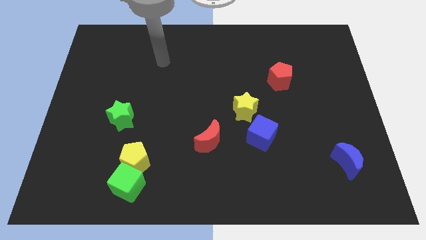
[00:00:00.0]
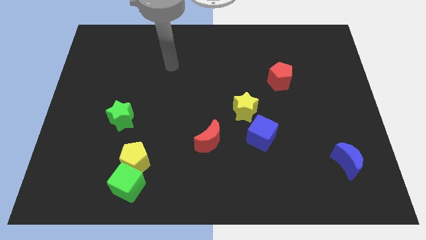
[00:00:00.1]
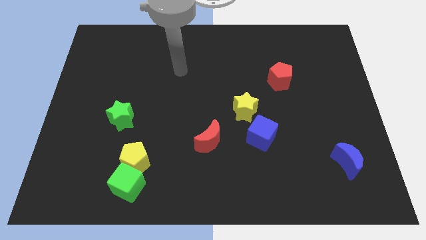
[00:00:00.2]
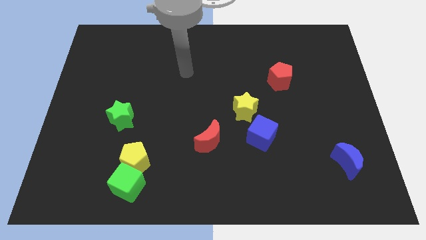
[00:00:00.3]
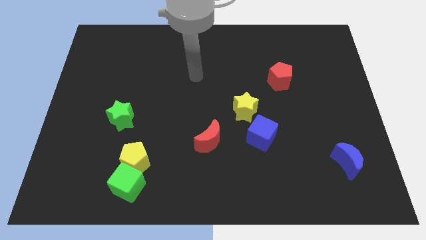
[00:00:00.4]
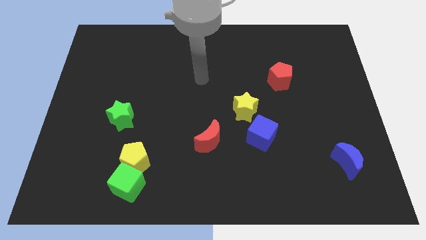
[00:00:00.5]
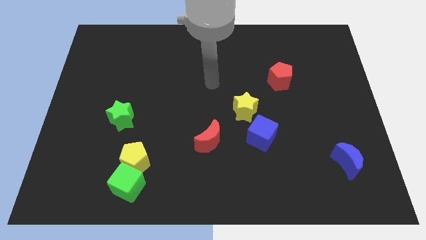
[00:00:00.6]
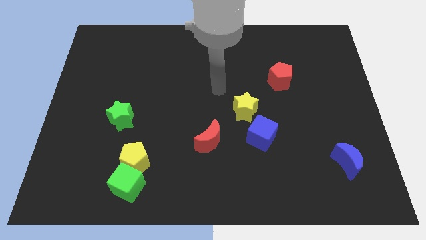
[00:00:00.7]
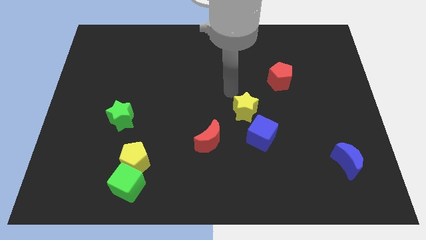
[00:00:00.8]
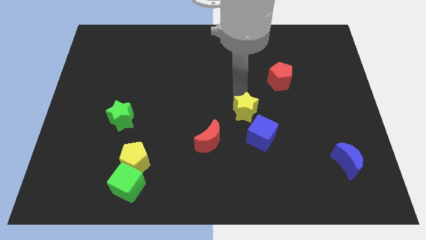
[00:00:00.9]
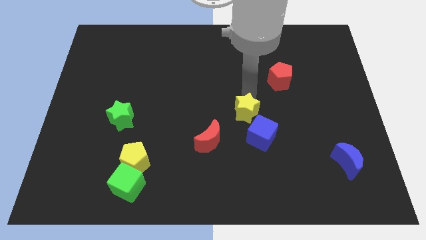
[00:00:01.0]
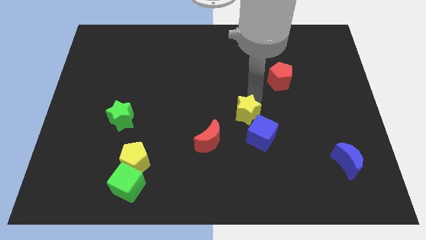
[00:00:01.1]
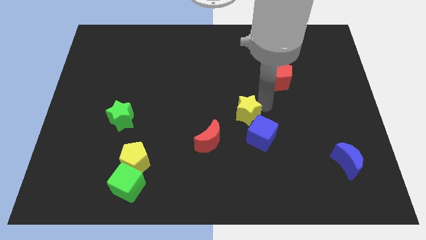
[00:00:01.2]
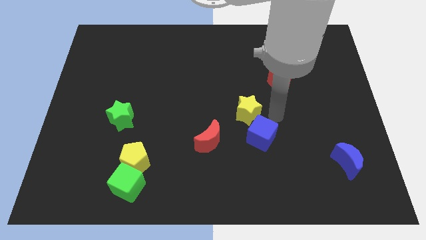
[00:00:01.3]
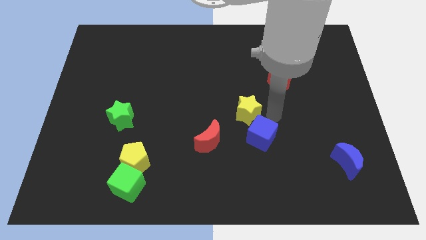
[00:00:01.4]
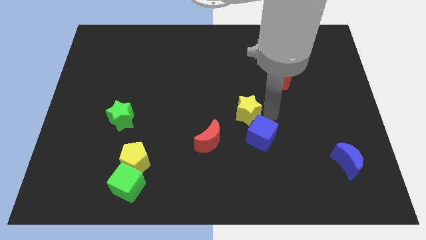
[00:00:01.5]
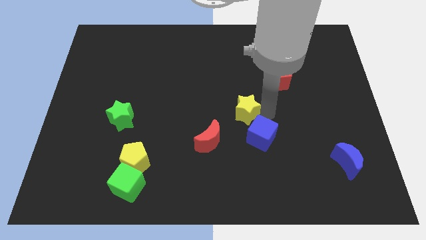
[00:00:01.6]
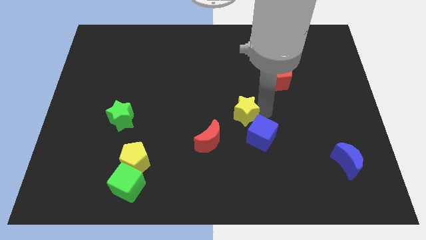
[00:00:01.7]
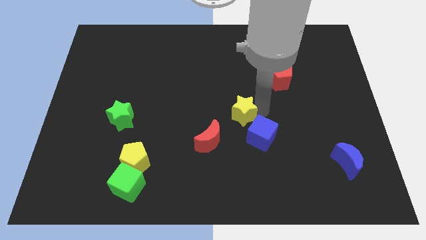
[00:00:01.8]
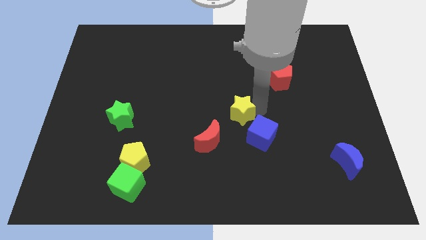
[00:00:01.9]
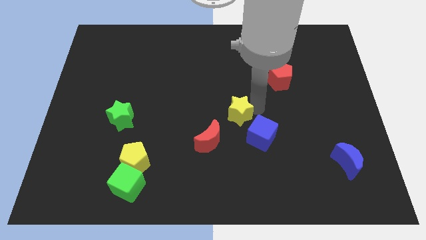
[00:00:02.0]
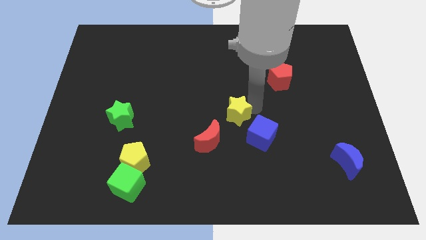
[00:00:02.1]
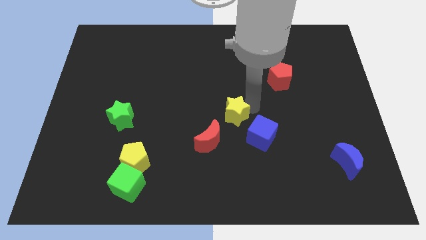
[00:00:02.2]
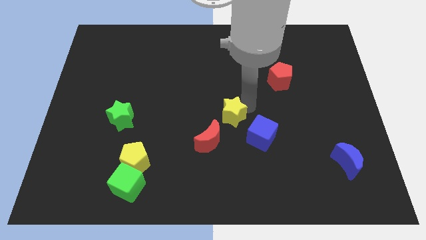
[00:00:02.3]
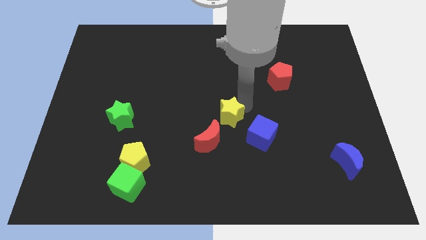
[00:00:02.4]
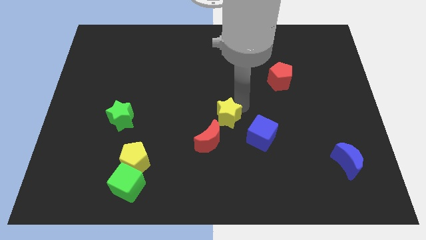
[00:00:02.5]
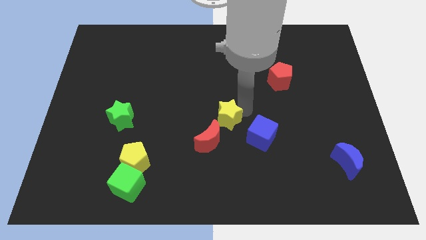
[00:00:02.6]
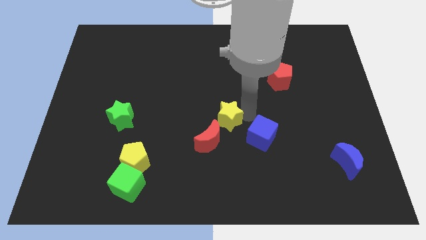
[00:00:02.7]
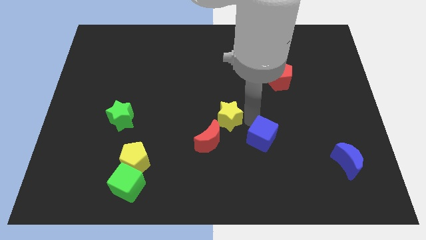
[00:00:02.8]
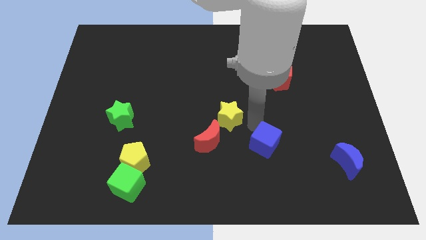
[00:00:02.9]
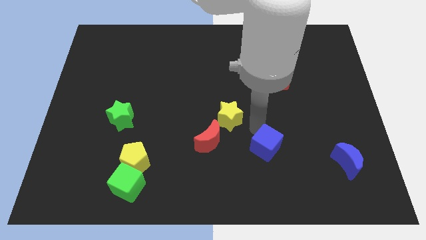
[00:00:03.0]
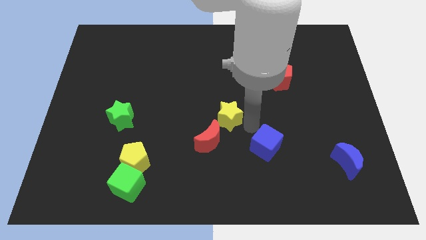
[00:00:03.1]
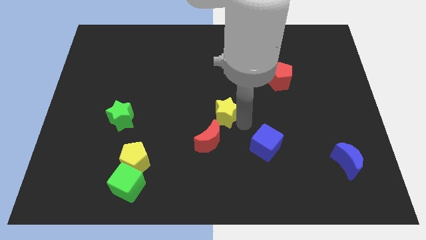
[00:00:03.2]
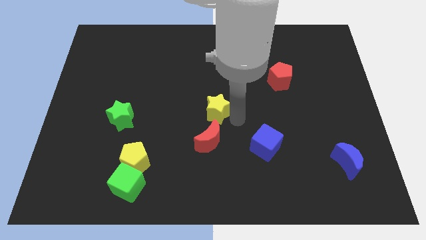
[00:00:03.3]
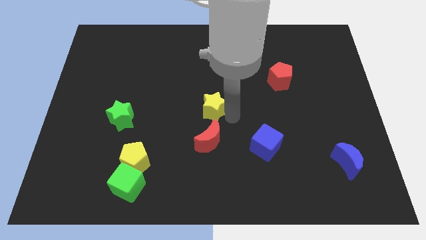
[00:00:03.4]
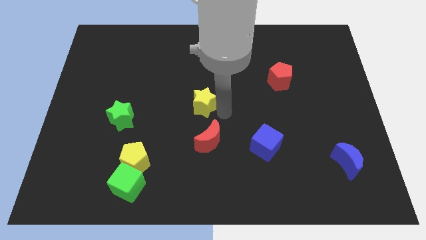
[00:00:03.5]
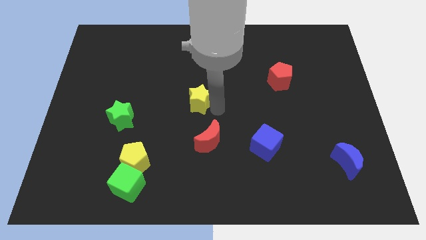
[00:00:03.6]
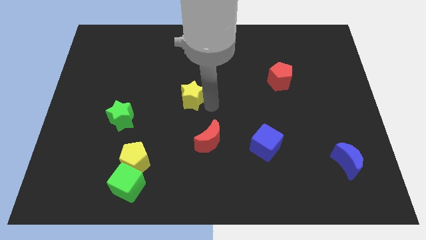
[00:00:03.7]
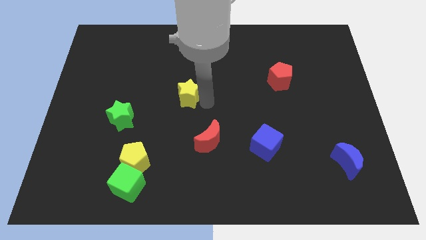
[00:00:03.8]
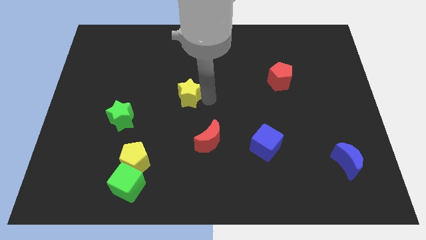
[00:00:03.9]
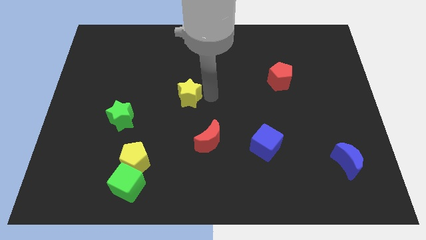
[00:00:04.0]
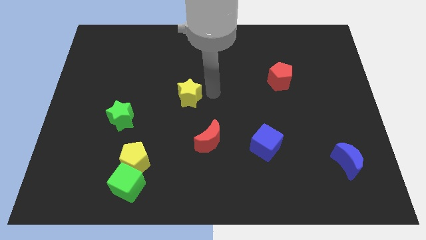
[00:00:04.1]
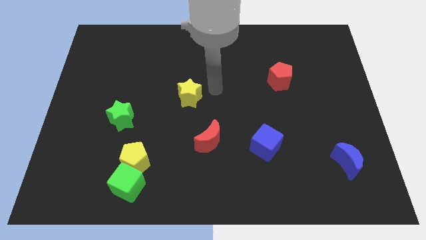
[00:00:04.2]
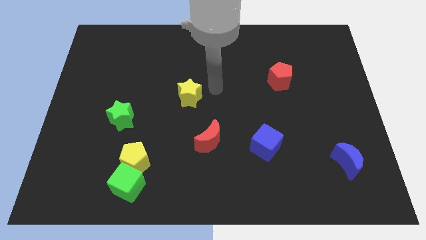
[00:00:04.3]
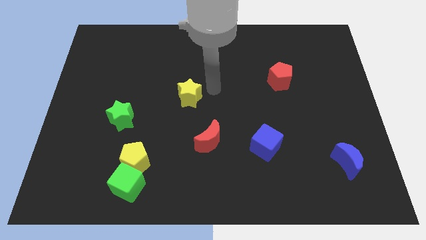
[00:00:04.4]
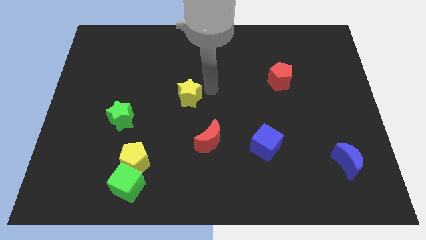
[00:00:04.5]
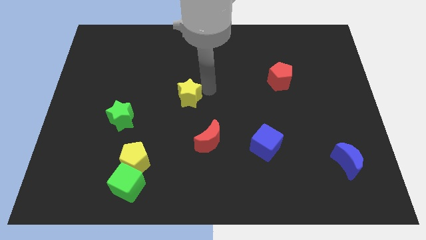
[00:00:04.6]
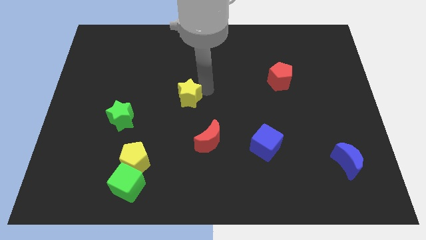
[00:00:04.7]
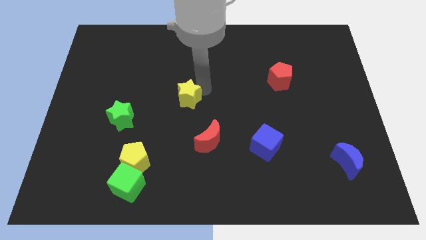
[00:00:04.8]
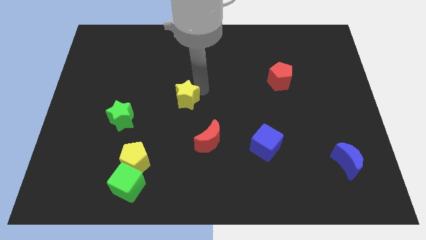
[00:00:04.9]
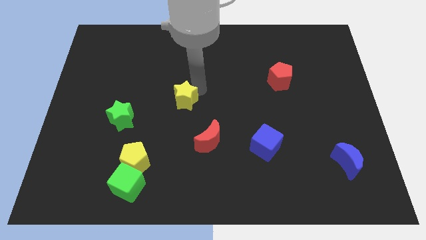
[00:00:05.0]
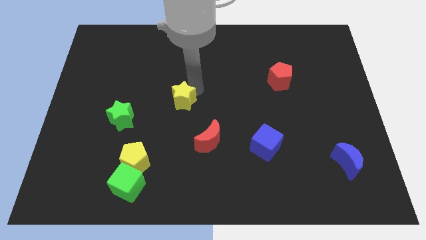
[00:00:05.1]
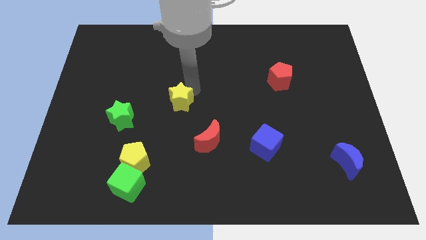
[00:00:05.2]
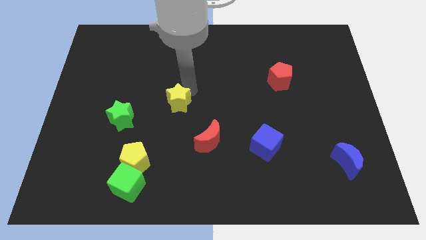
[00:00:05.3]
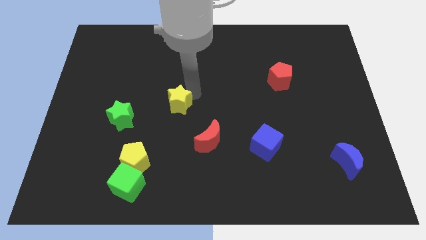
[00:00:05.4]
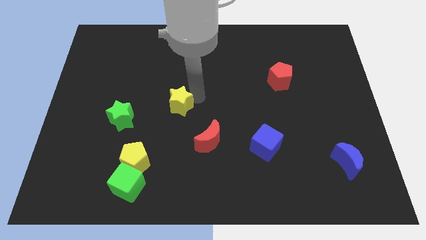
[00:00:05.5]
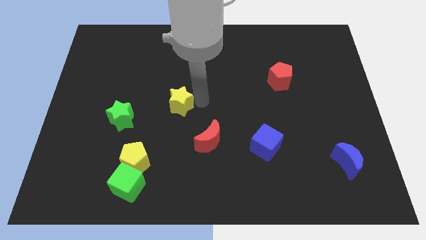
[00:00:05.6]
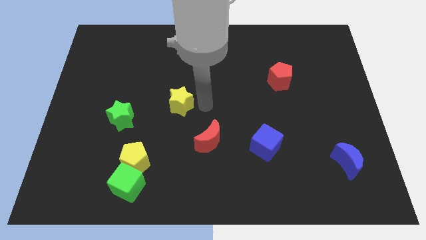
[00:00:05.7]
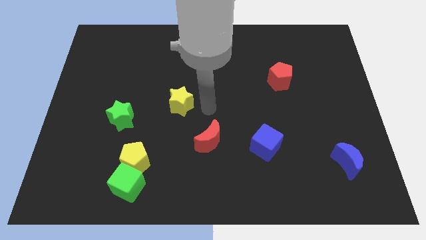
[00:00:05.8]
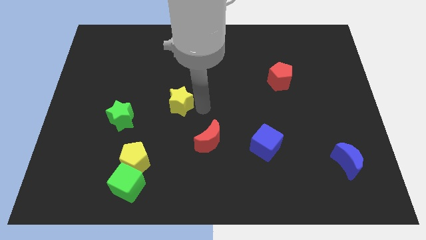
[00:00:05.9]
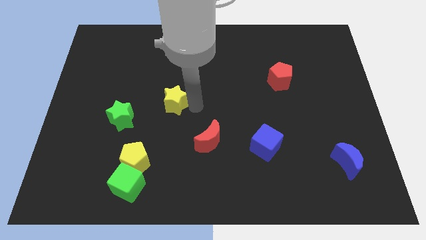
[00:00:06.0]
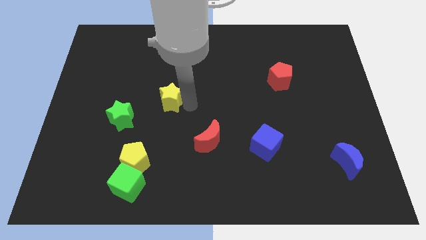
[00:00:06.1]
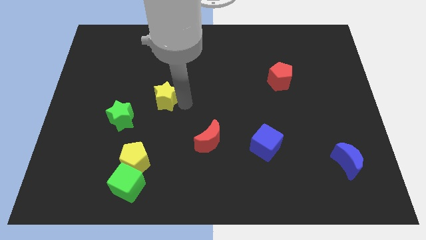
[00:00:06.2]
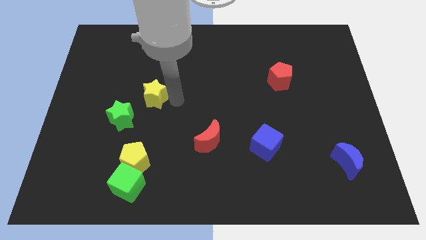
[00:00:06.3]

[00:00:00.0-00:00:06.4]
move the yellow star to the left

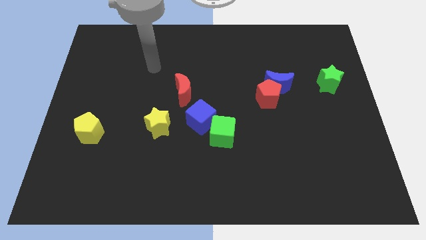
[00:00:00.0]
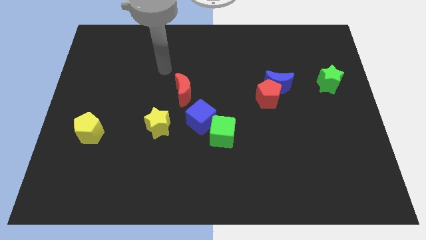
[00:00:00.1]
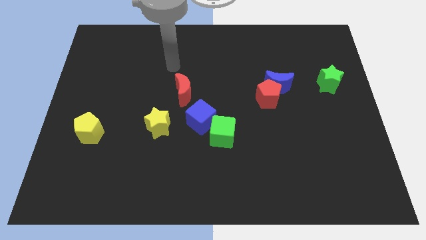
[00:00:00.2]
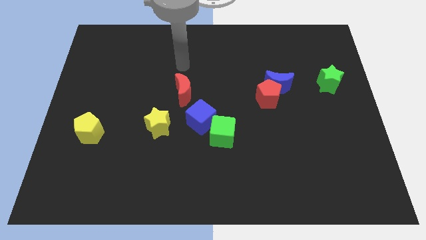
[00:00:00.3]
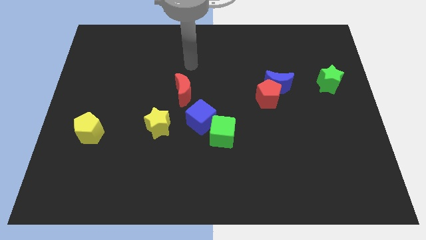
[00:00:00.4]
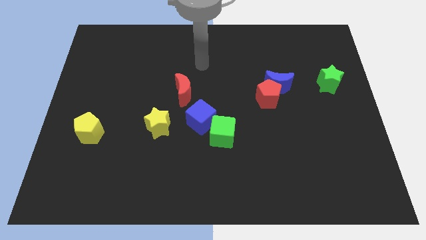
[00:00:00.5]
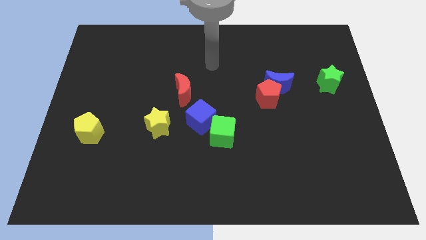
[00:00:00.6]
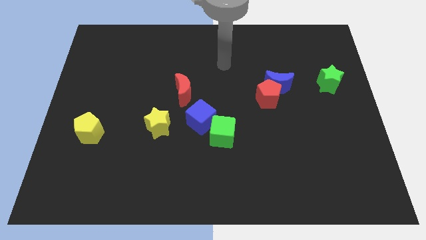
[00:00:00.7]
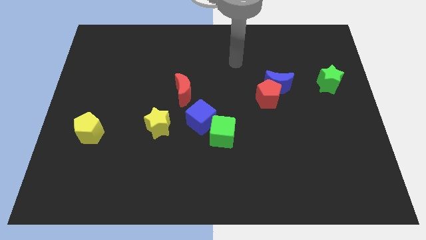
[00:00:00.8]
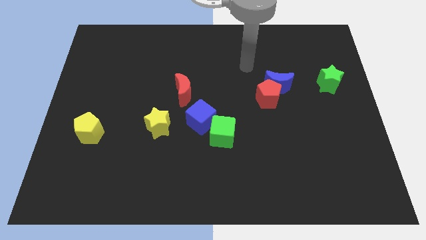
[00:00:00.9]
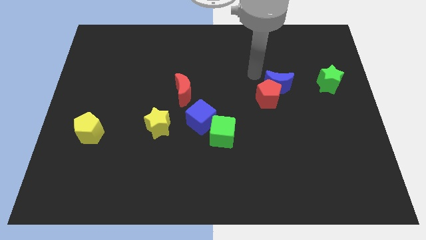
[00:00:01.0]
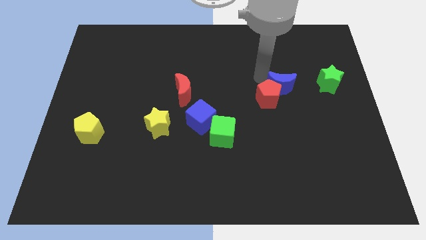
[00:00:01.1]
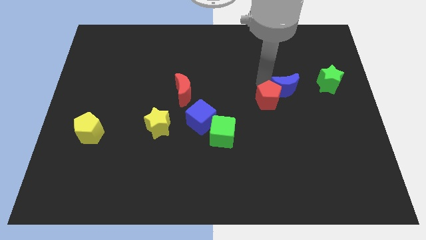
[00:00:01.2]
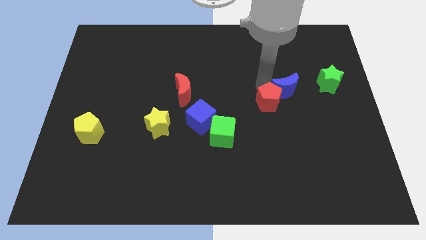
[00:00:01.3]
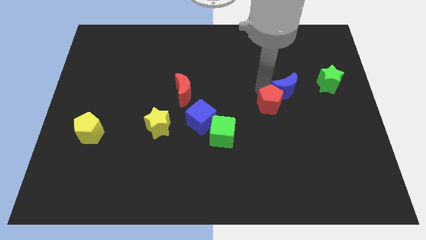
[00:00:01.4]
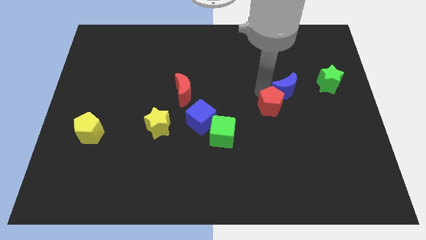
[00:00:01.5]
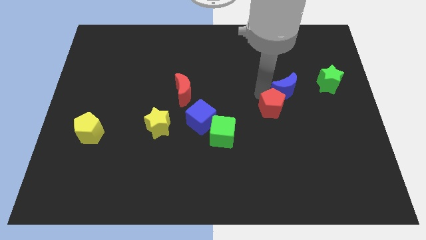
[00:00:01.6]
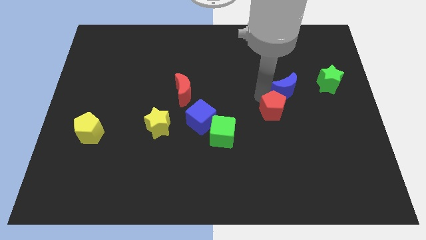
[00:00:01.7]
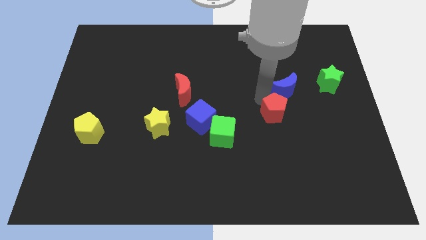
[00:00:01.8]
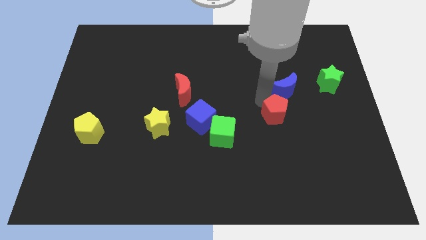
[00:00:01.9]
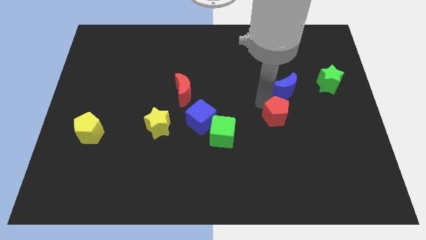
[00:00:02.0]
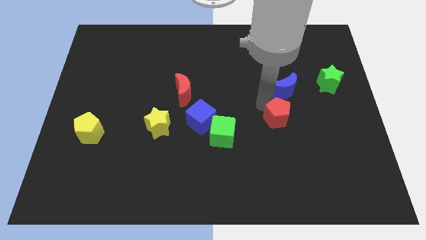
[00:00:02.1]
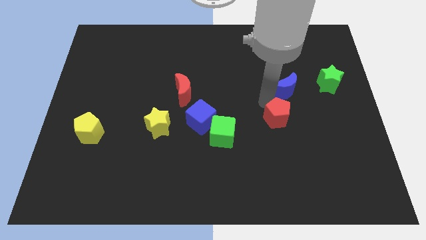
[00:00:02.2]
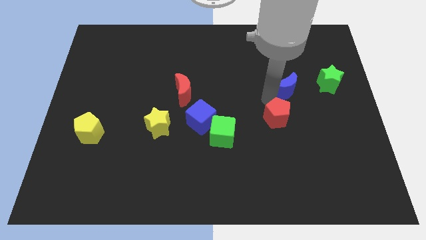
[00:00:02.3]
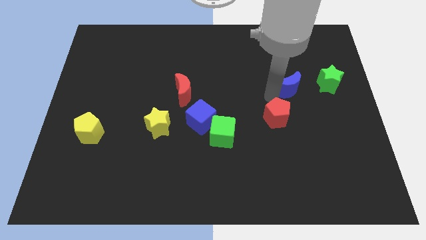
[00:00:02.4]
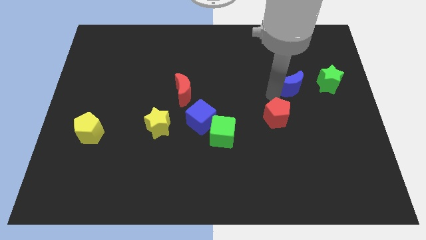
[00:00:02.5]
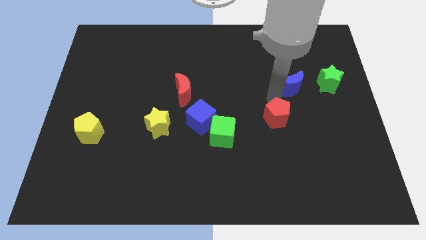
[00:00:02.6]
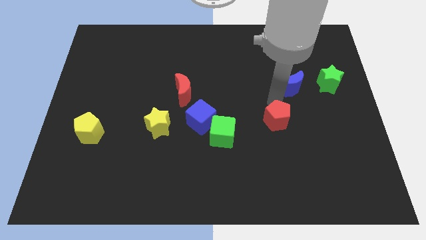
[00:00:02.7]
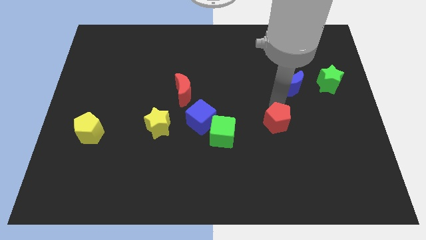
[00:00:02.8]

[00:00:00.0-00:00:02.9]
slide the red pentagon somewhat downwards
